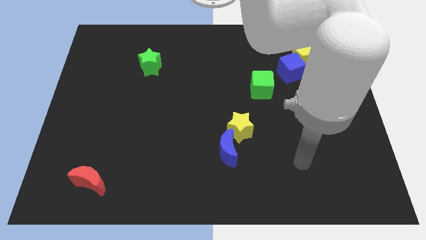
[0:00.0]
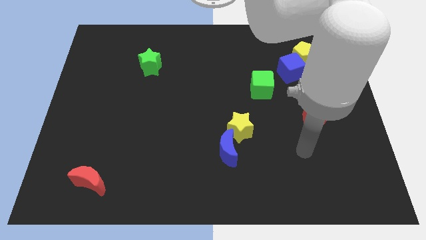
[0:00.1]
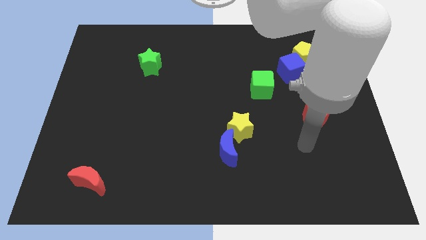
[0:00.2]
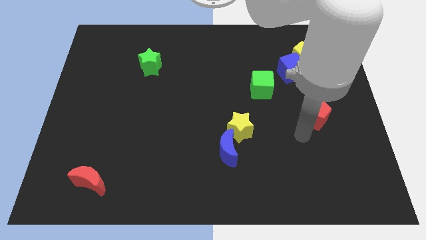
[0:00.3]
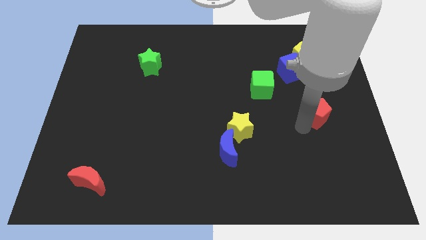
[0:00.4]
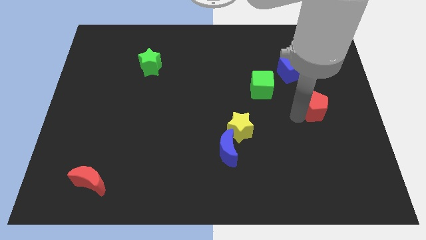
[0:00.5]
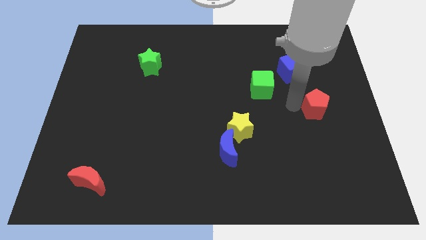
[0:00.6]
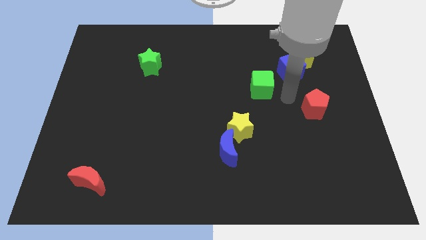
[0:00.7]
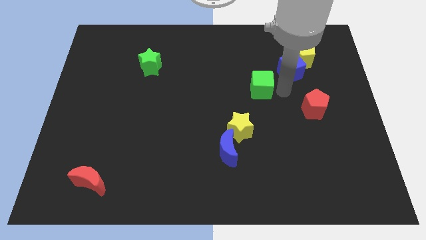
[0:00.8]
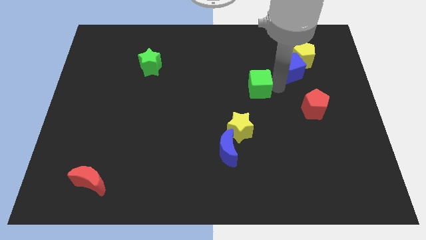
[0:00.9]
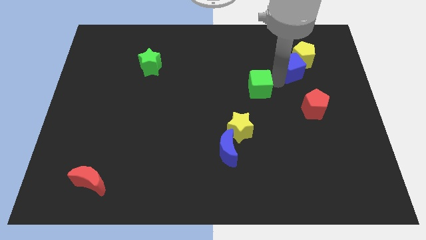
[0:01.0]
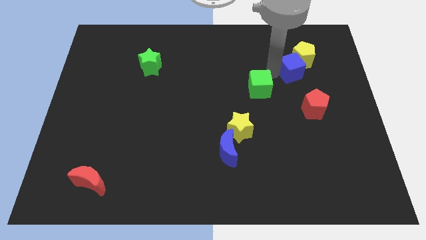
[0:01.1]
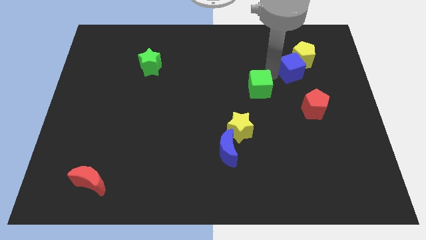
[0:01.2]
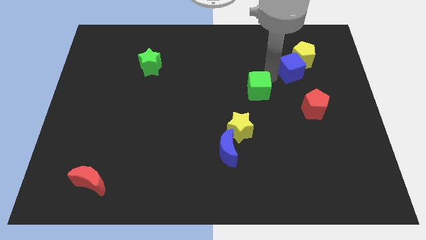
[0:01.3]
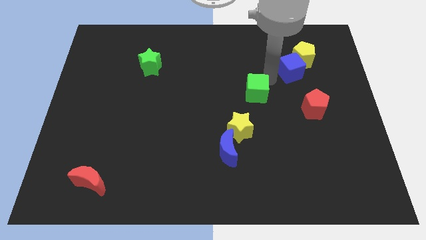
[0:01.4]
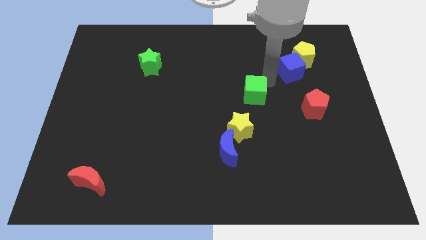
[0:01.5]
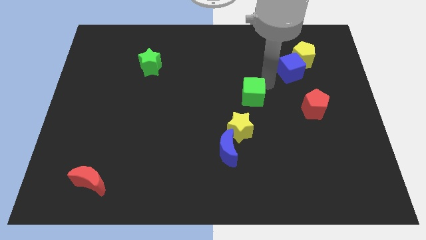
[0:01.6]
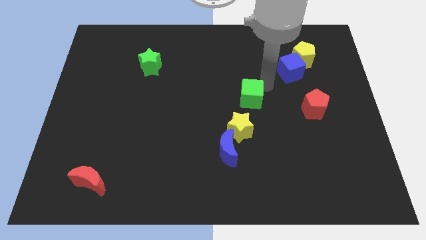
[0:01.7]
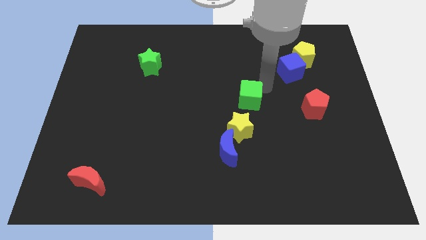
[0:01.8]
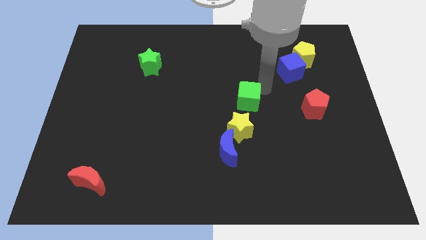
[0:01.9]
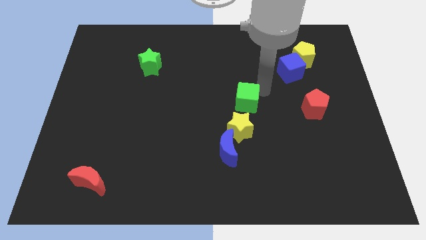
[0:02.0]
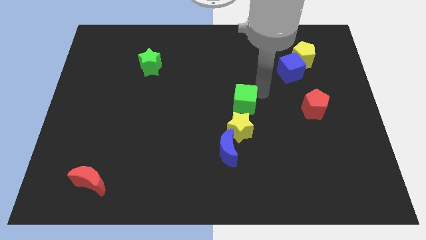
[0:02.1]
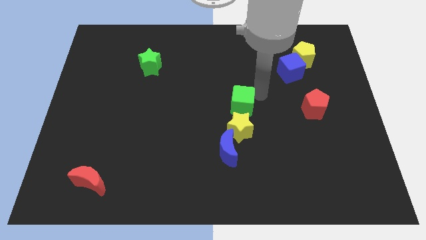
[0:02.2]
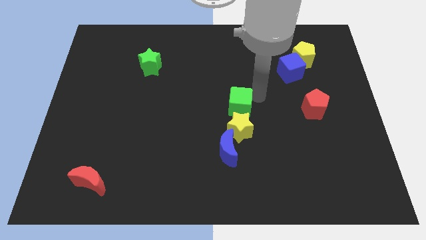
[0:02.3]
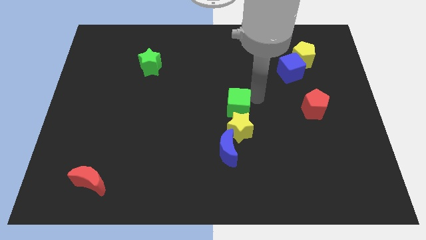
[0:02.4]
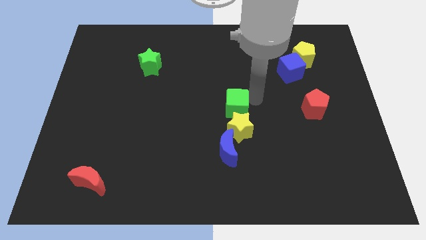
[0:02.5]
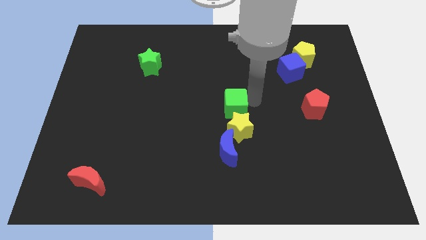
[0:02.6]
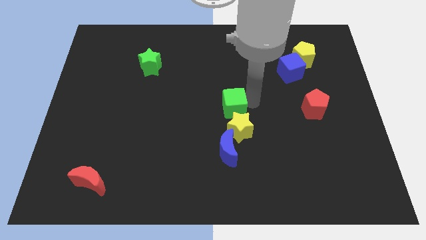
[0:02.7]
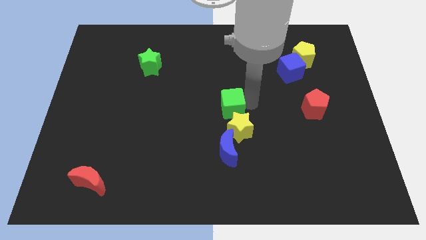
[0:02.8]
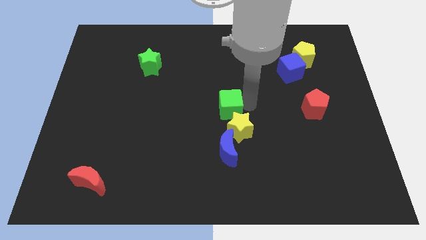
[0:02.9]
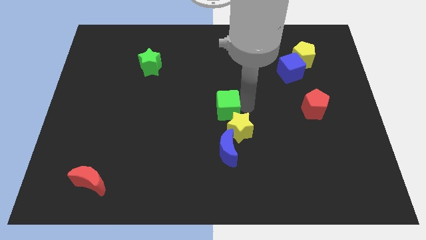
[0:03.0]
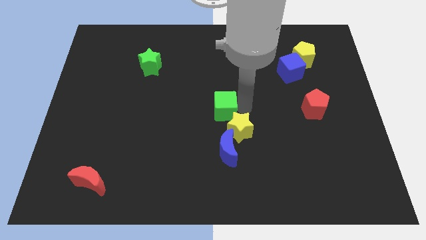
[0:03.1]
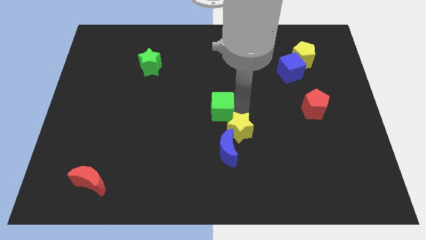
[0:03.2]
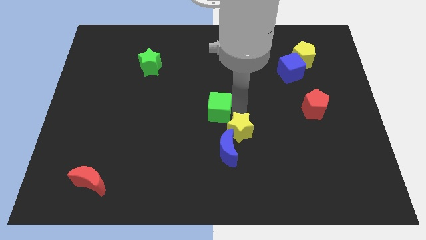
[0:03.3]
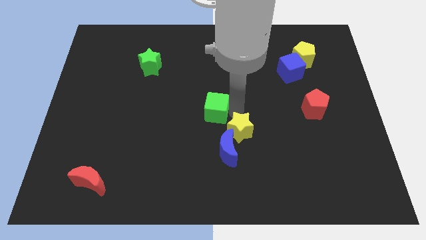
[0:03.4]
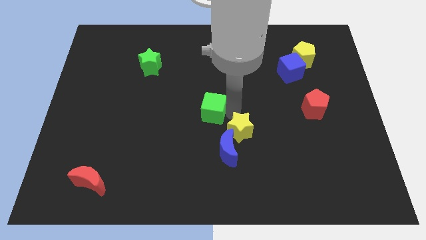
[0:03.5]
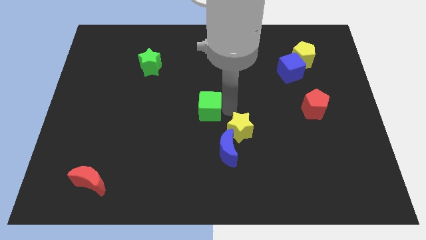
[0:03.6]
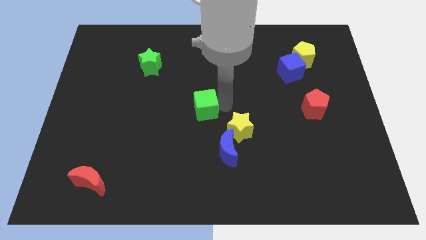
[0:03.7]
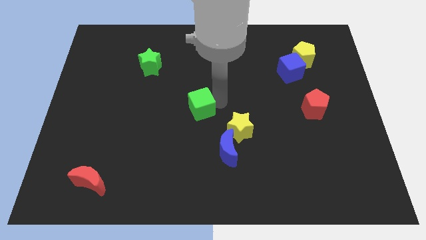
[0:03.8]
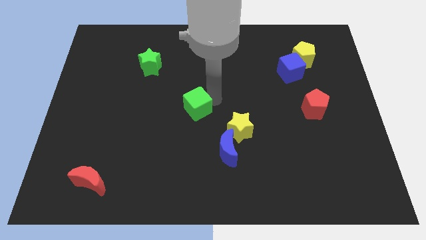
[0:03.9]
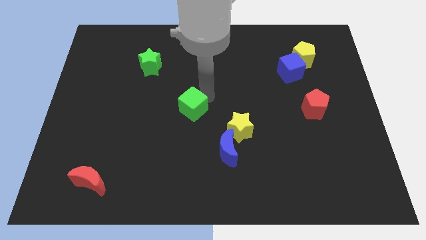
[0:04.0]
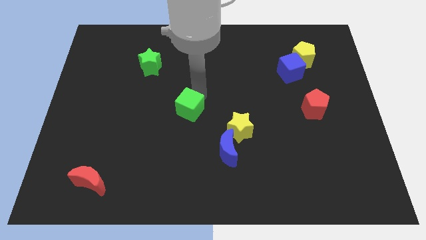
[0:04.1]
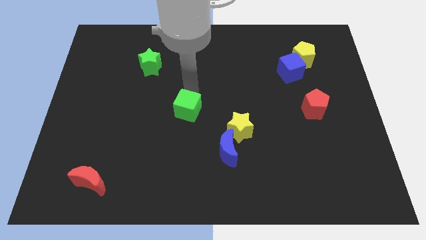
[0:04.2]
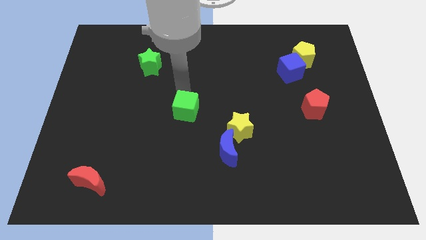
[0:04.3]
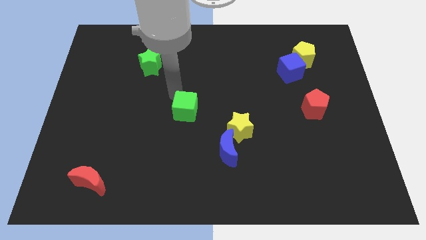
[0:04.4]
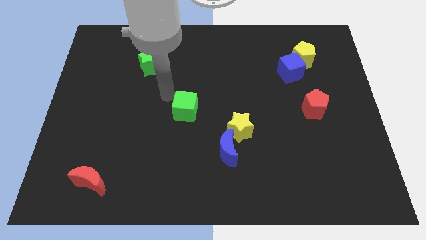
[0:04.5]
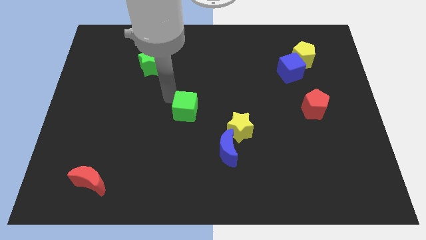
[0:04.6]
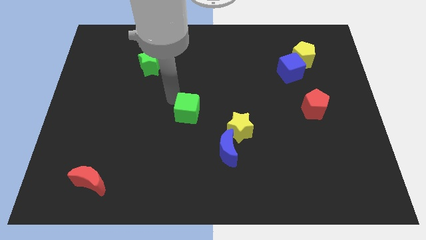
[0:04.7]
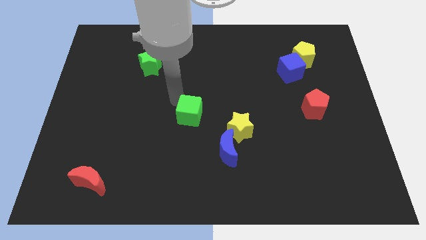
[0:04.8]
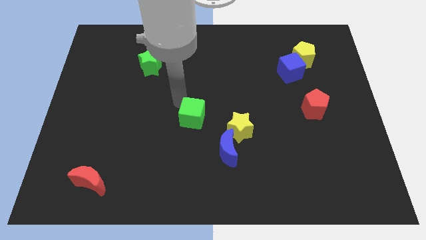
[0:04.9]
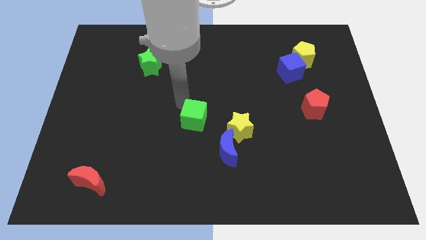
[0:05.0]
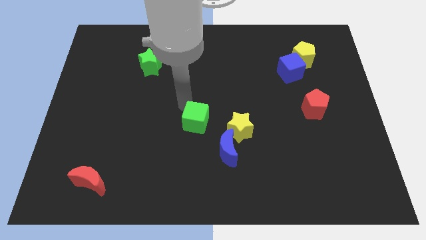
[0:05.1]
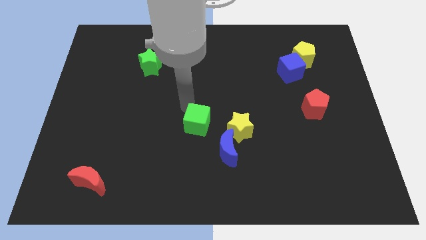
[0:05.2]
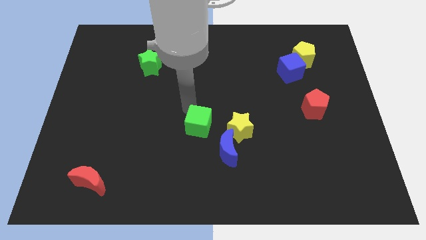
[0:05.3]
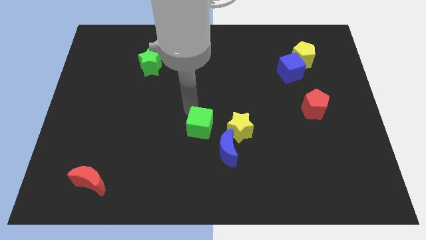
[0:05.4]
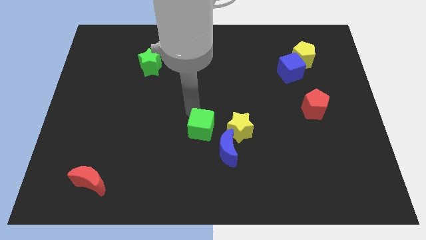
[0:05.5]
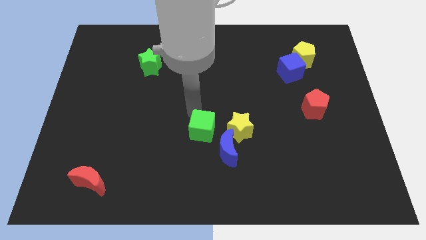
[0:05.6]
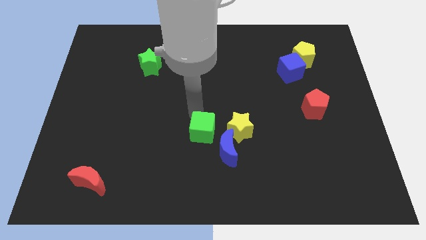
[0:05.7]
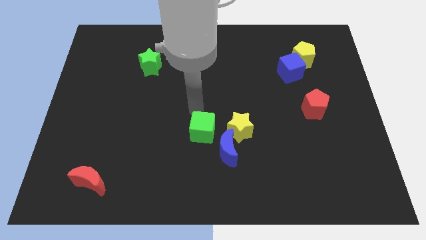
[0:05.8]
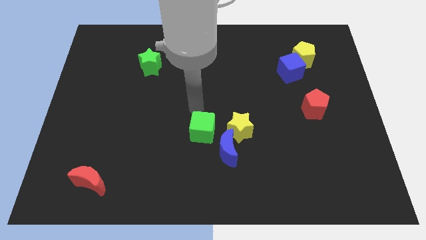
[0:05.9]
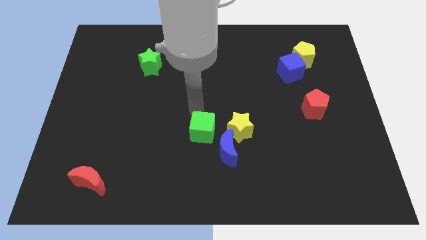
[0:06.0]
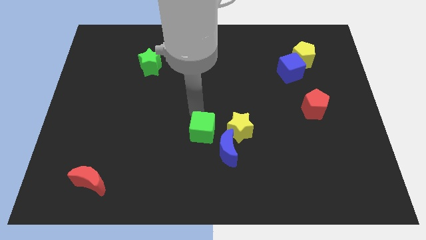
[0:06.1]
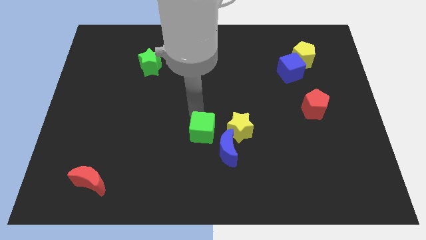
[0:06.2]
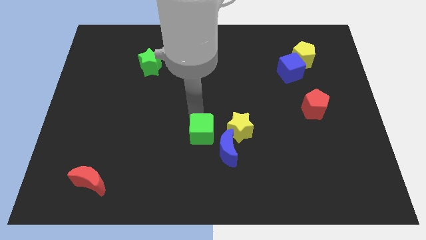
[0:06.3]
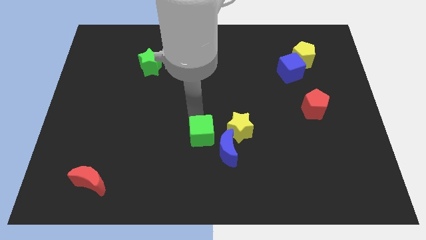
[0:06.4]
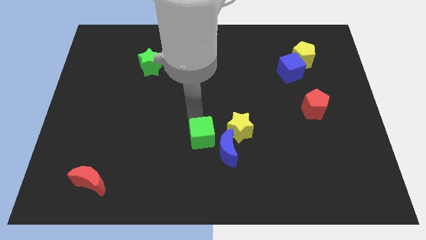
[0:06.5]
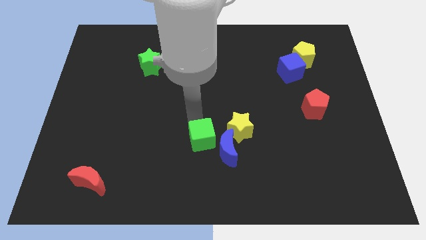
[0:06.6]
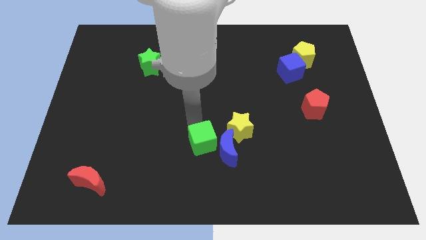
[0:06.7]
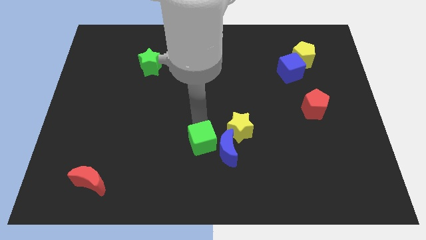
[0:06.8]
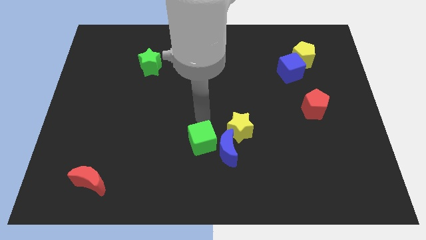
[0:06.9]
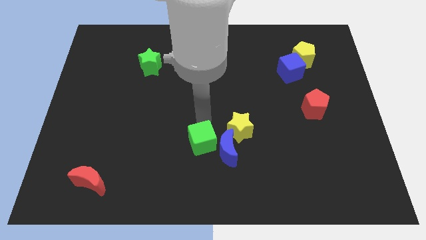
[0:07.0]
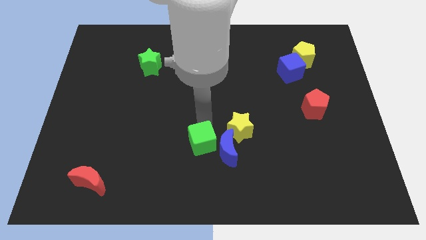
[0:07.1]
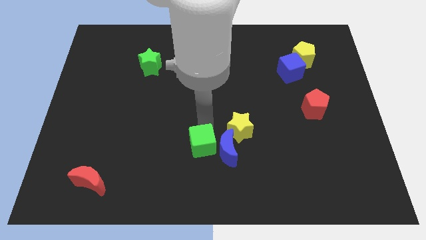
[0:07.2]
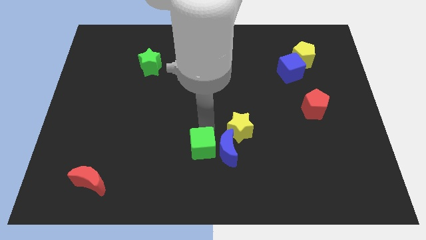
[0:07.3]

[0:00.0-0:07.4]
put the green cube to the bottom left of the blue moon
